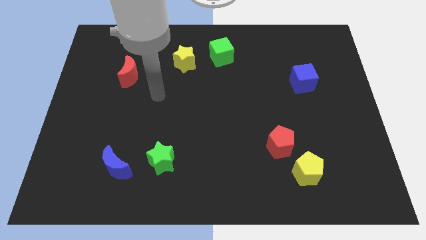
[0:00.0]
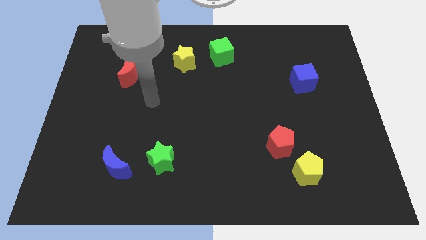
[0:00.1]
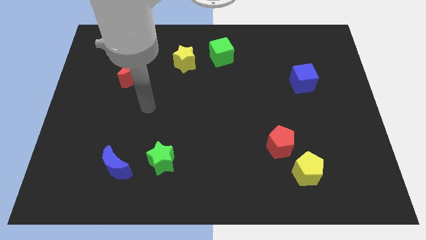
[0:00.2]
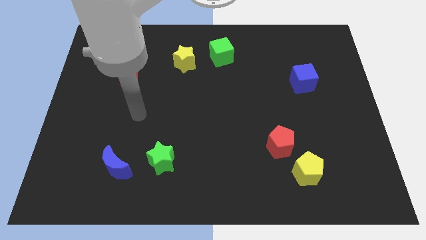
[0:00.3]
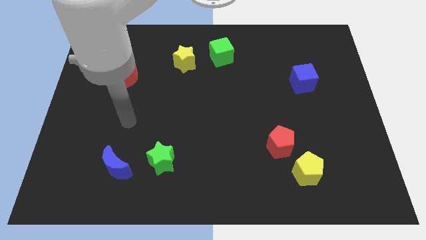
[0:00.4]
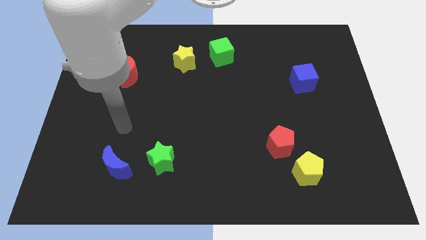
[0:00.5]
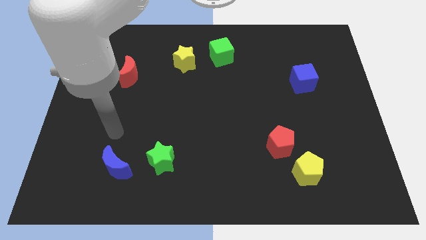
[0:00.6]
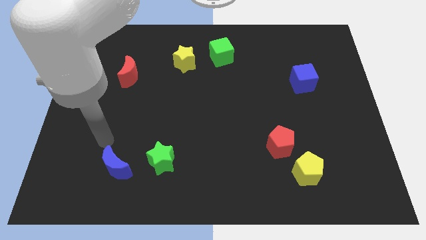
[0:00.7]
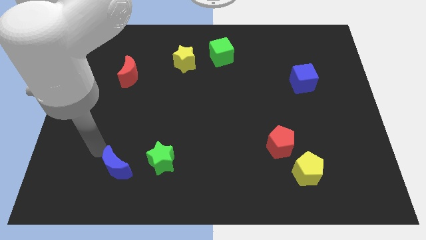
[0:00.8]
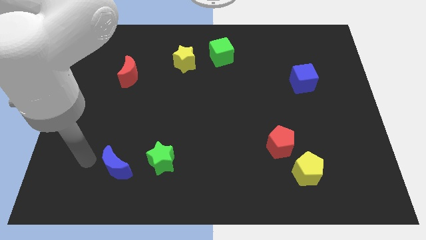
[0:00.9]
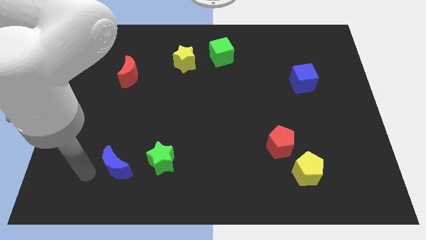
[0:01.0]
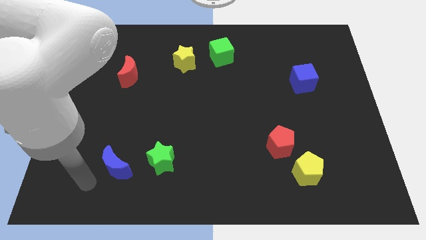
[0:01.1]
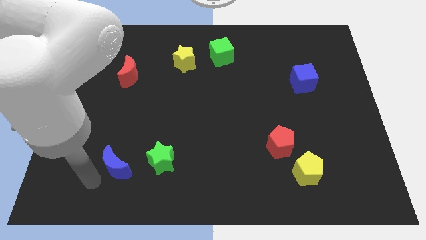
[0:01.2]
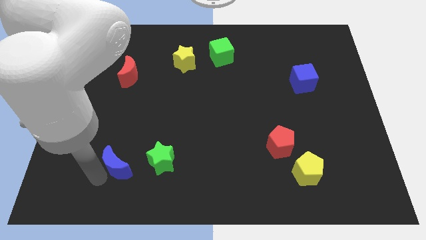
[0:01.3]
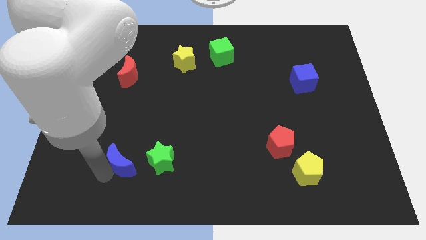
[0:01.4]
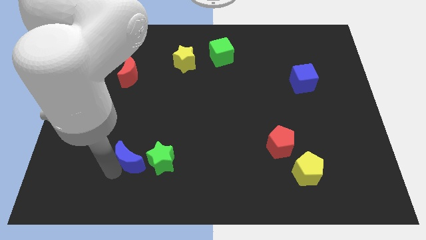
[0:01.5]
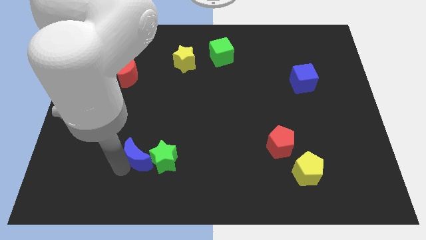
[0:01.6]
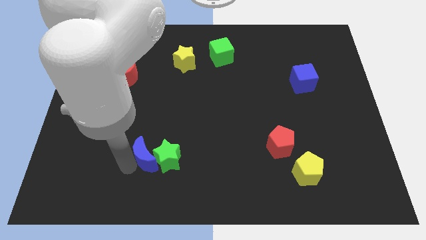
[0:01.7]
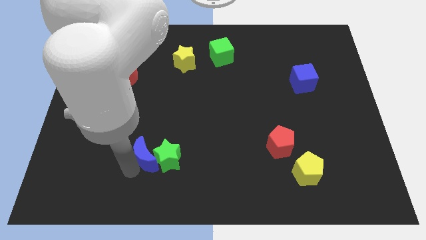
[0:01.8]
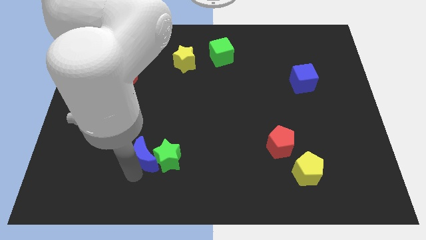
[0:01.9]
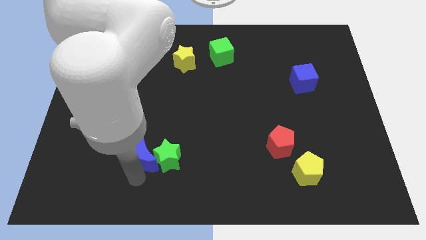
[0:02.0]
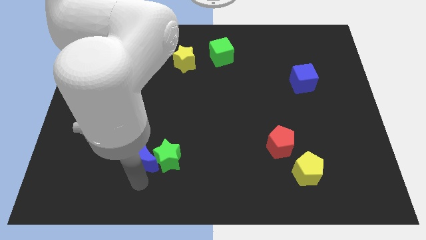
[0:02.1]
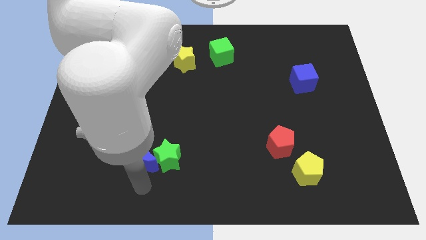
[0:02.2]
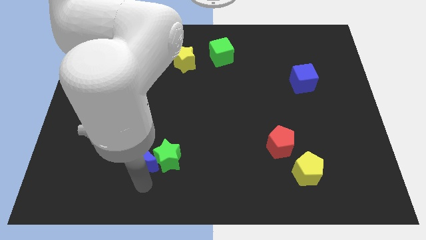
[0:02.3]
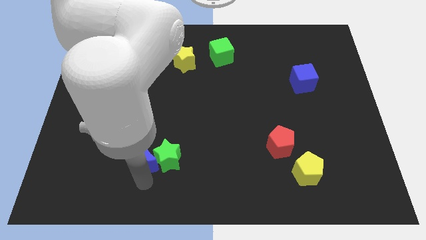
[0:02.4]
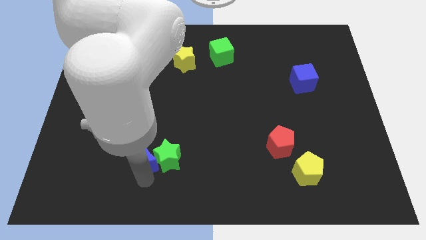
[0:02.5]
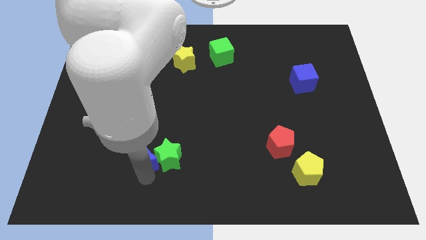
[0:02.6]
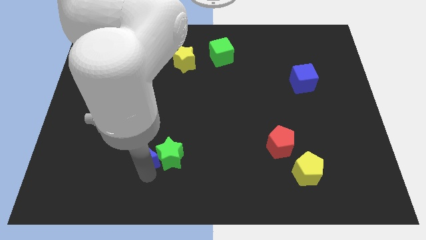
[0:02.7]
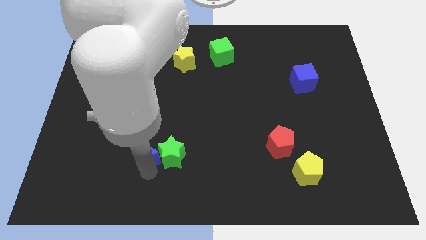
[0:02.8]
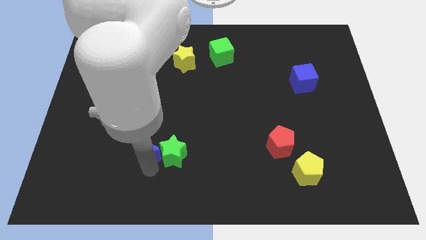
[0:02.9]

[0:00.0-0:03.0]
slightly move the blue moon diagonally upwards and to the right

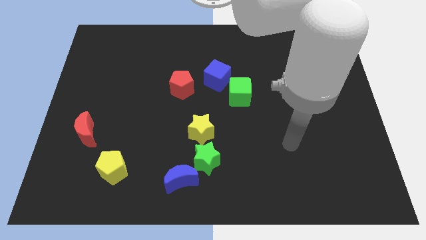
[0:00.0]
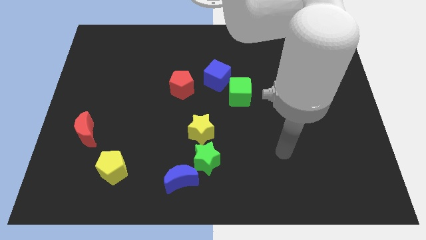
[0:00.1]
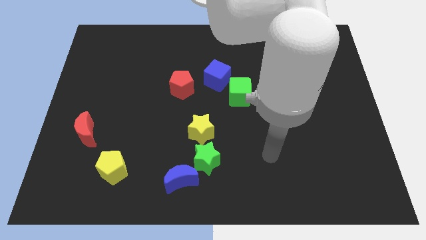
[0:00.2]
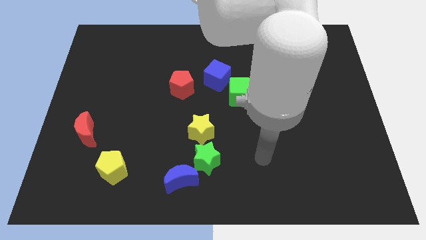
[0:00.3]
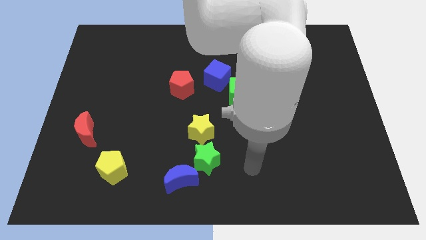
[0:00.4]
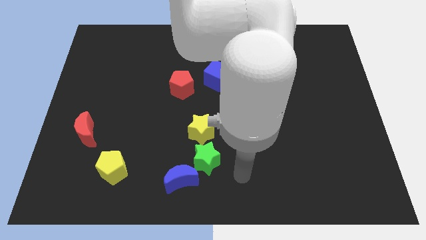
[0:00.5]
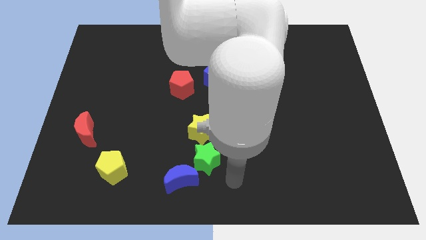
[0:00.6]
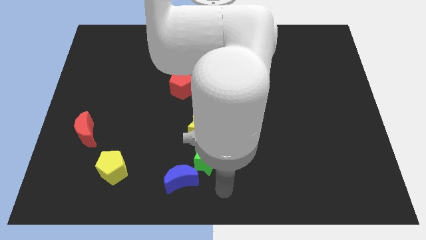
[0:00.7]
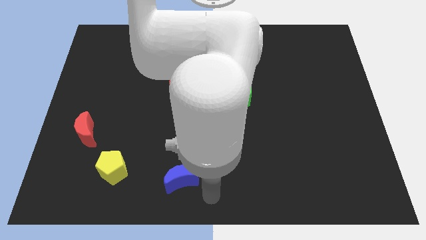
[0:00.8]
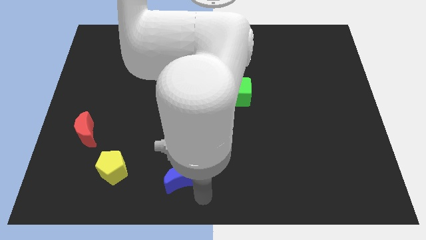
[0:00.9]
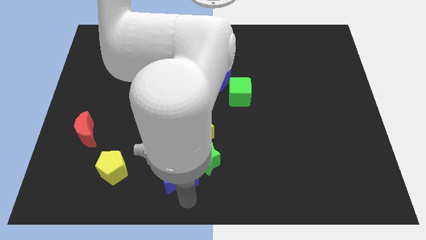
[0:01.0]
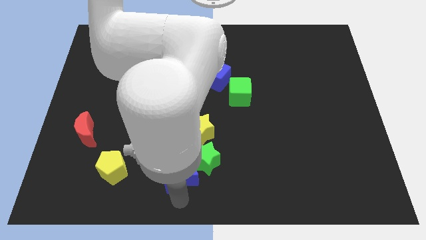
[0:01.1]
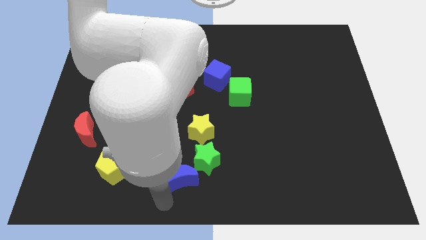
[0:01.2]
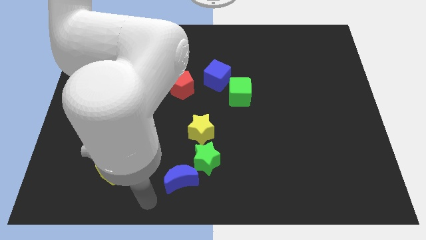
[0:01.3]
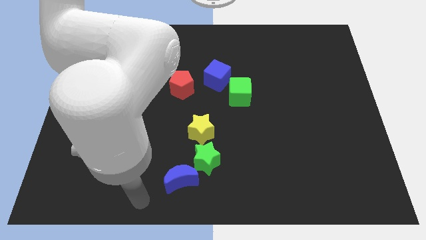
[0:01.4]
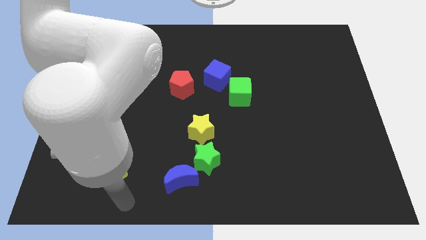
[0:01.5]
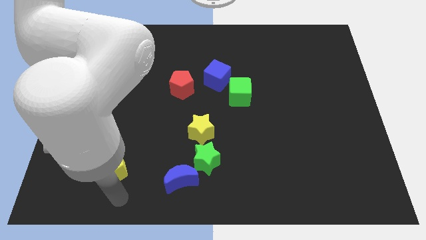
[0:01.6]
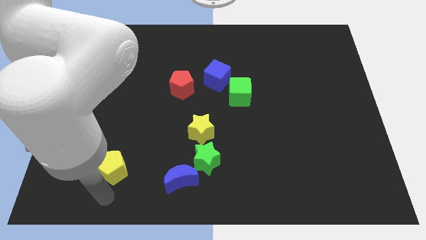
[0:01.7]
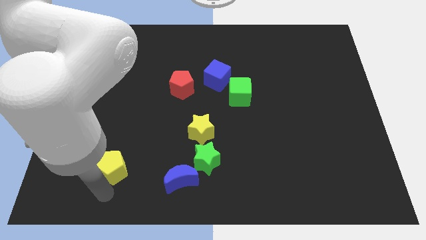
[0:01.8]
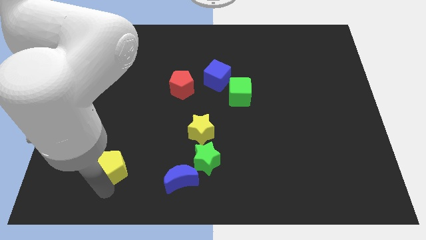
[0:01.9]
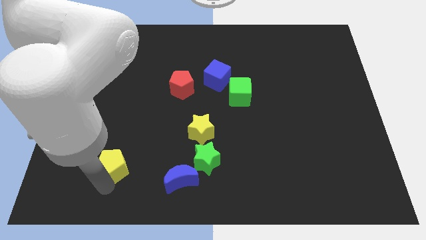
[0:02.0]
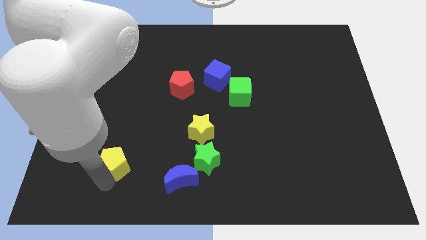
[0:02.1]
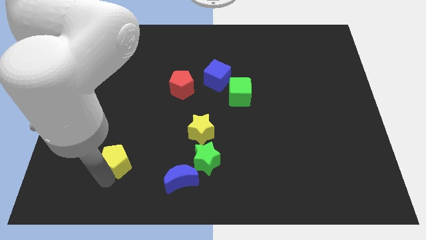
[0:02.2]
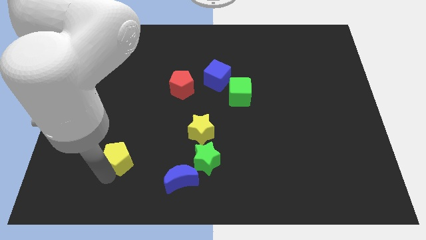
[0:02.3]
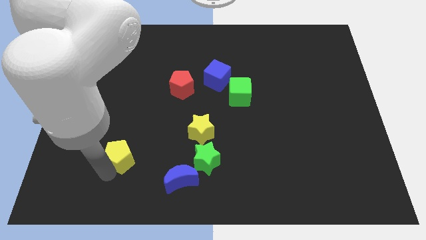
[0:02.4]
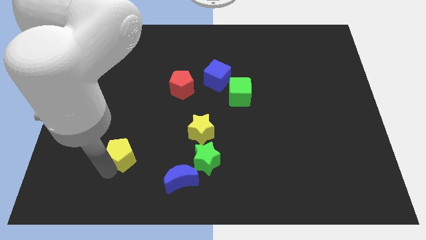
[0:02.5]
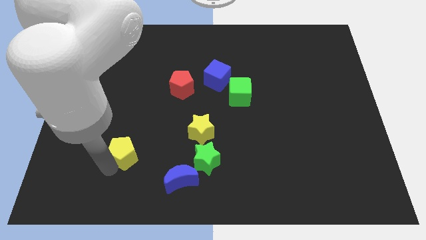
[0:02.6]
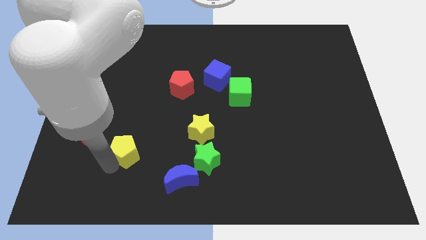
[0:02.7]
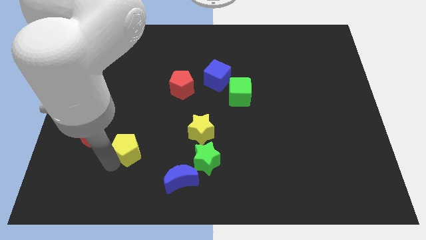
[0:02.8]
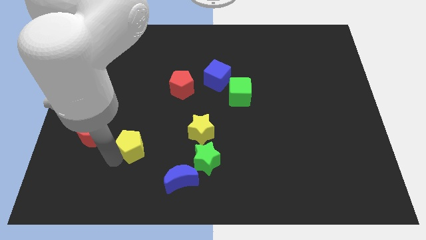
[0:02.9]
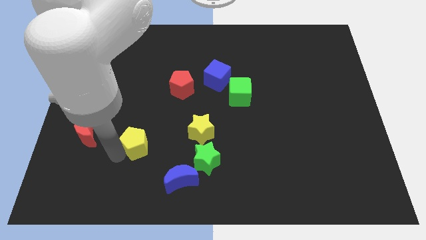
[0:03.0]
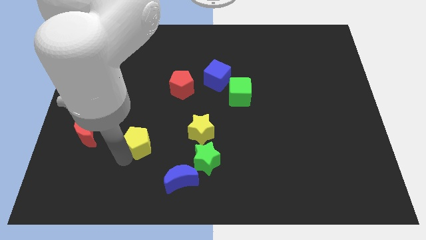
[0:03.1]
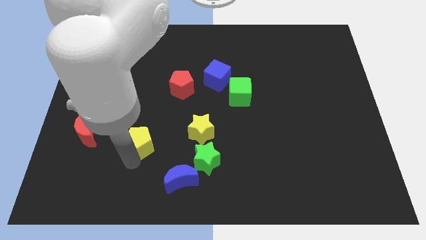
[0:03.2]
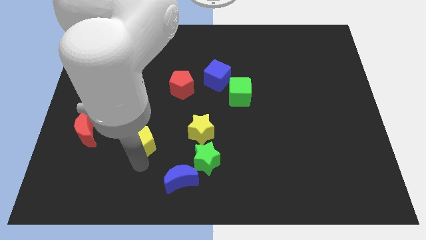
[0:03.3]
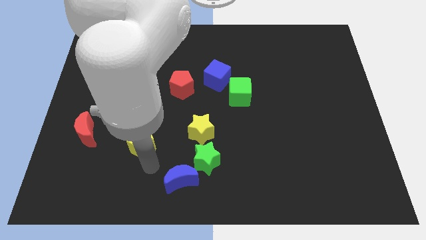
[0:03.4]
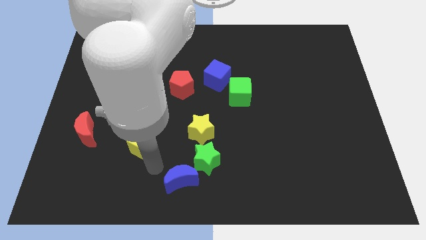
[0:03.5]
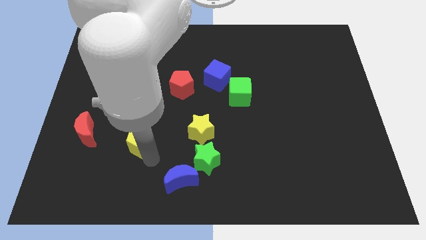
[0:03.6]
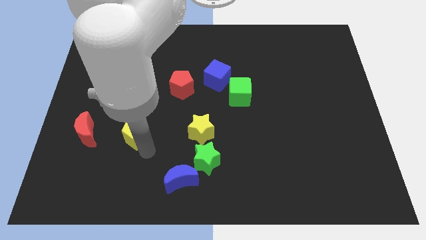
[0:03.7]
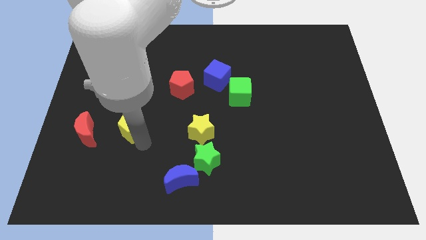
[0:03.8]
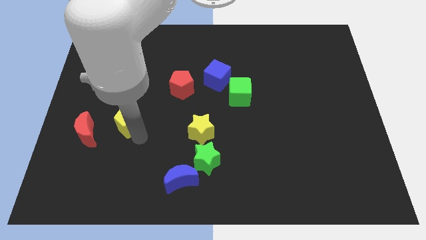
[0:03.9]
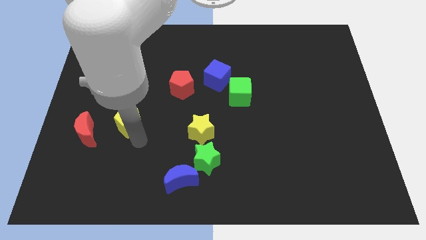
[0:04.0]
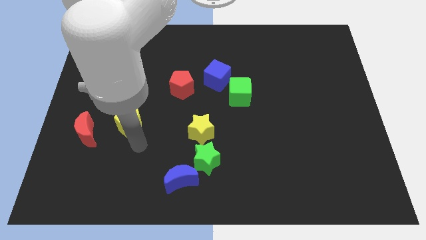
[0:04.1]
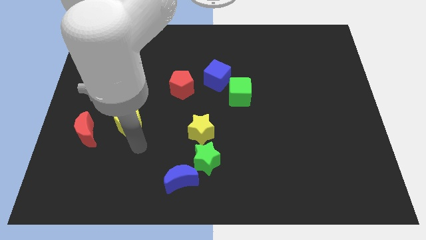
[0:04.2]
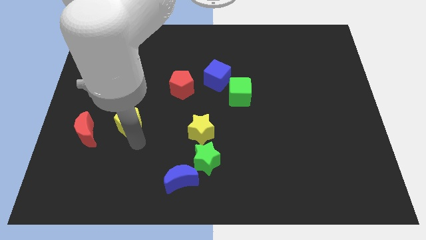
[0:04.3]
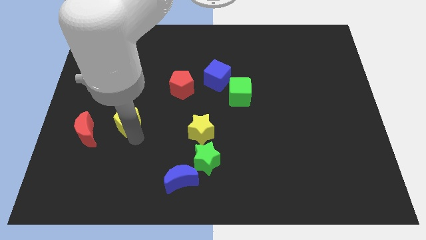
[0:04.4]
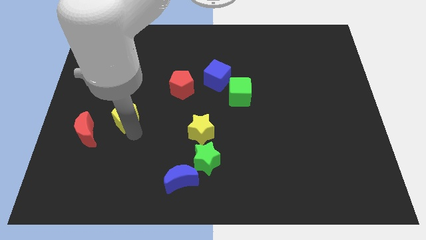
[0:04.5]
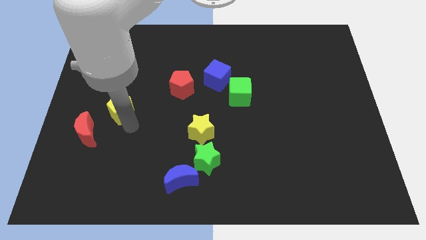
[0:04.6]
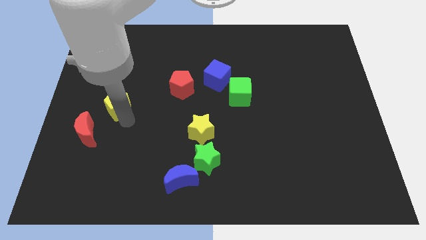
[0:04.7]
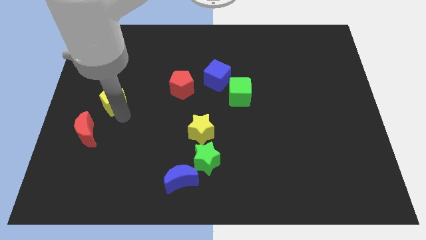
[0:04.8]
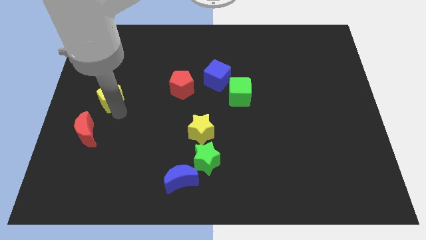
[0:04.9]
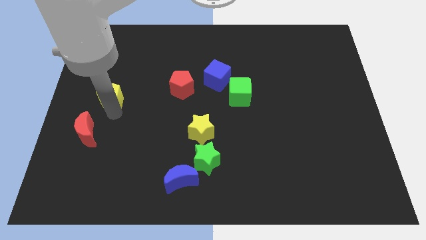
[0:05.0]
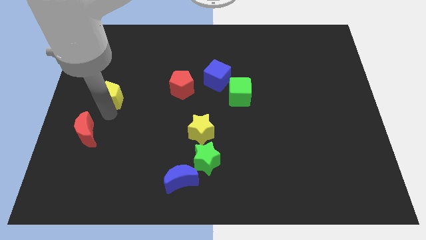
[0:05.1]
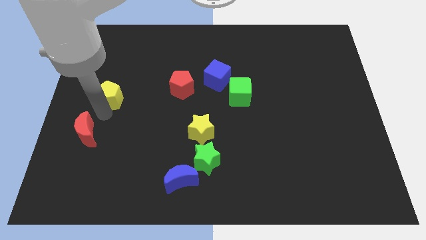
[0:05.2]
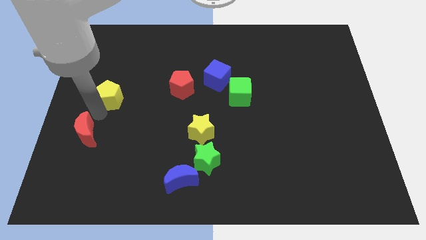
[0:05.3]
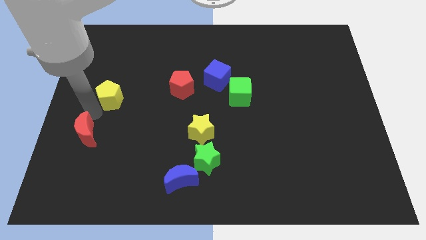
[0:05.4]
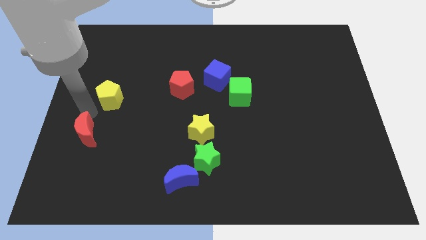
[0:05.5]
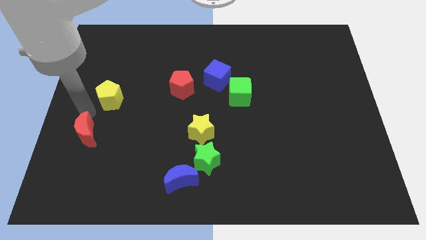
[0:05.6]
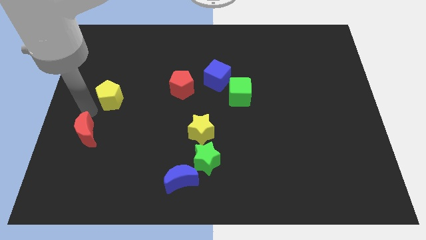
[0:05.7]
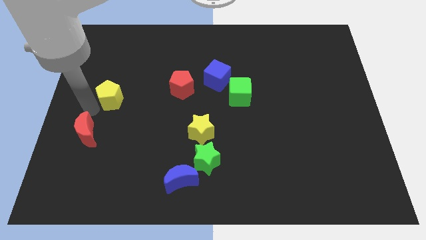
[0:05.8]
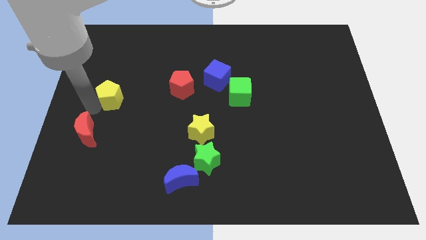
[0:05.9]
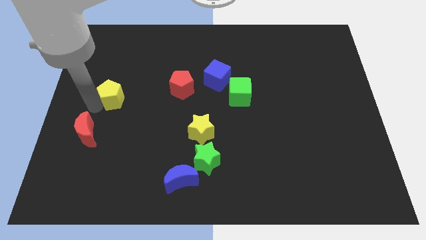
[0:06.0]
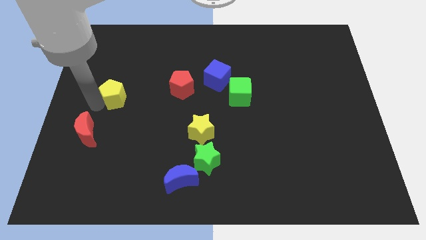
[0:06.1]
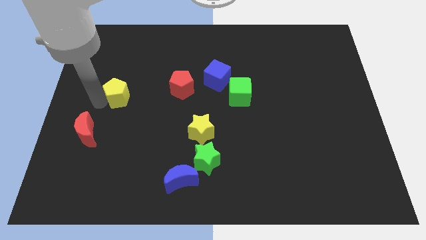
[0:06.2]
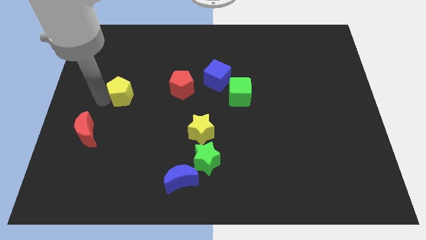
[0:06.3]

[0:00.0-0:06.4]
push the yellow pentagon upwards
